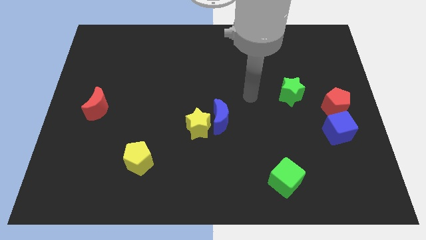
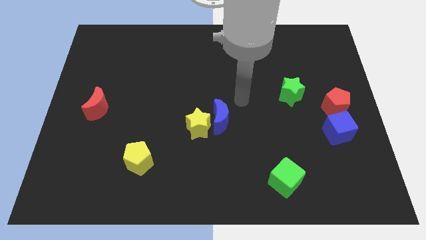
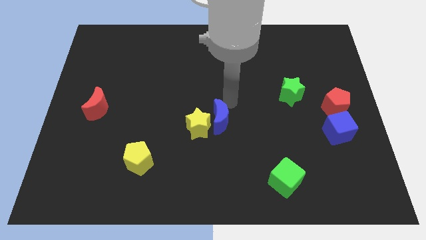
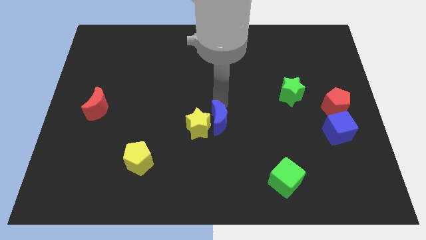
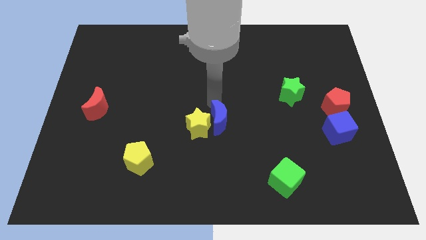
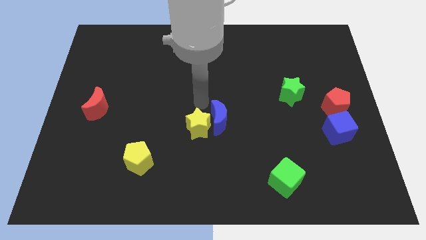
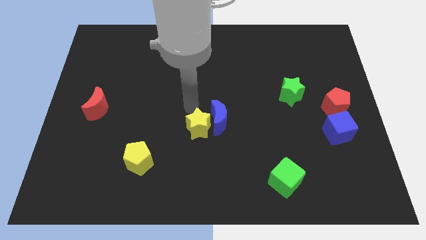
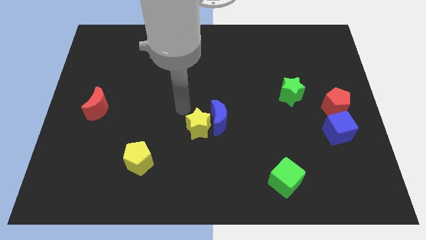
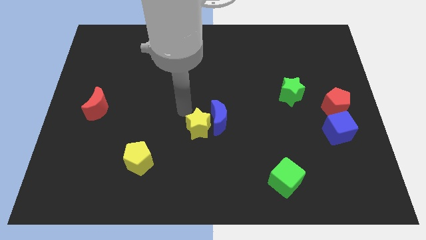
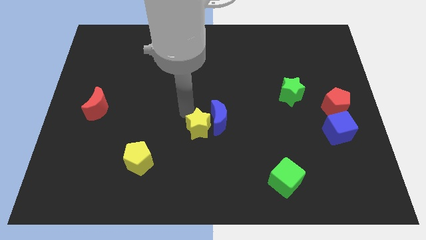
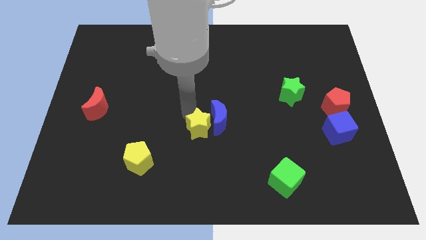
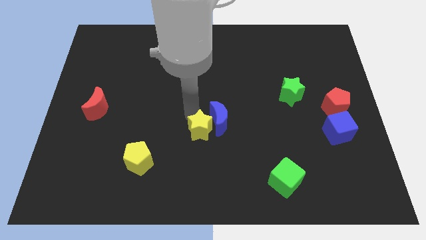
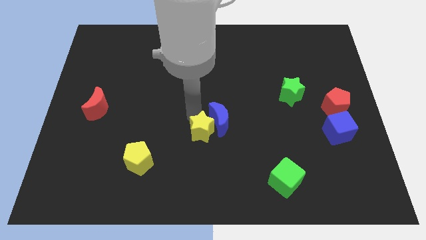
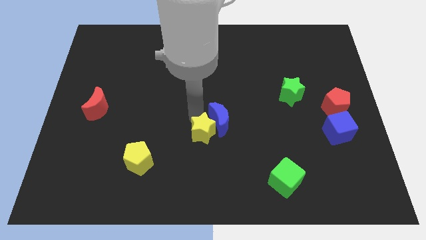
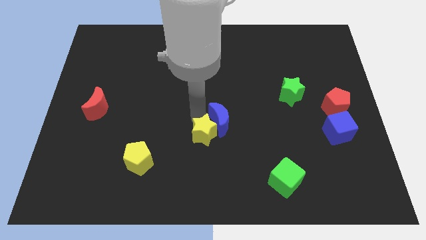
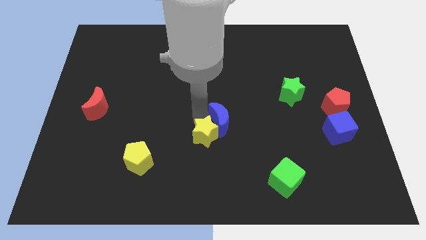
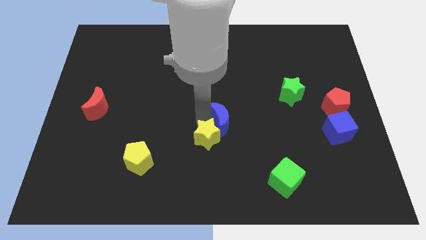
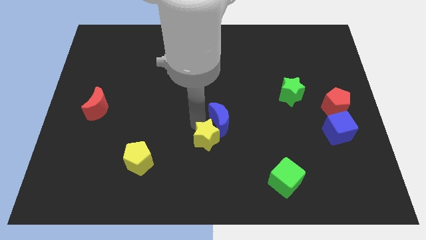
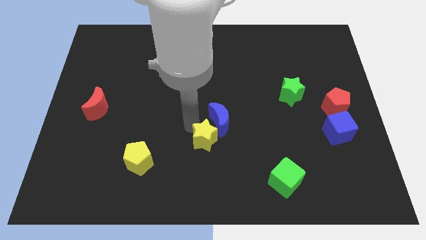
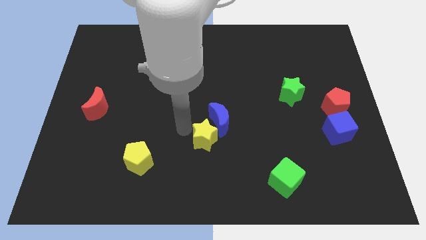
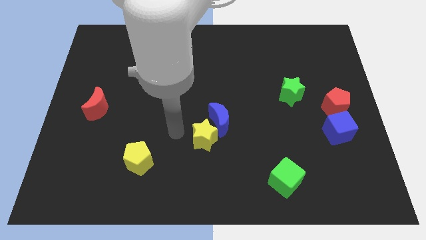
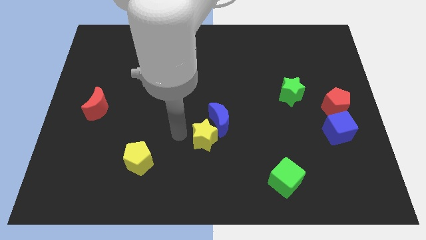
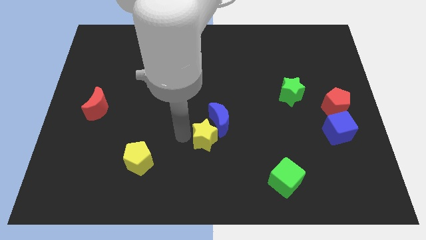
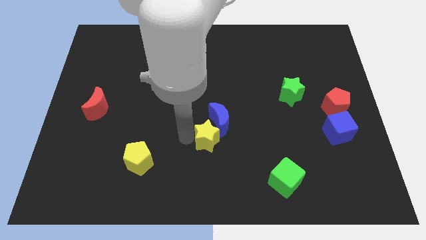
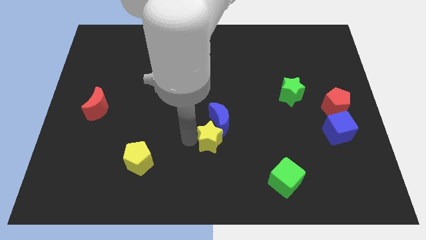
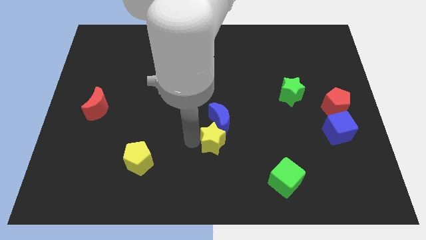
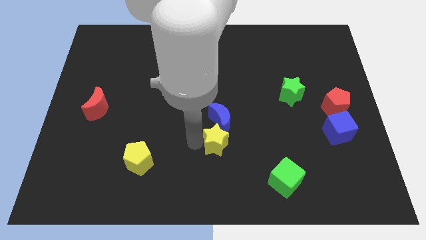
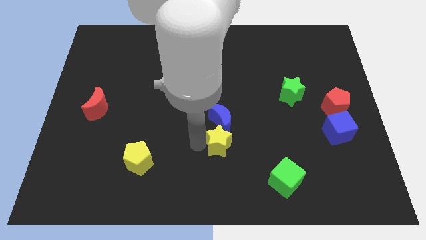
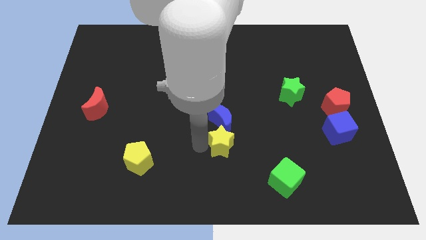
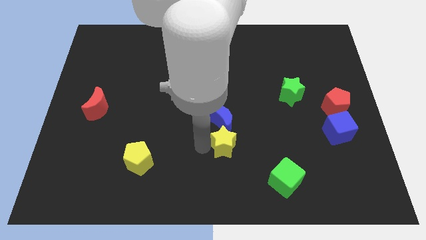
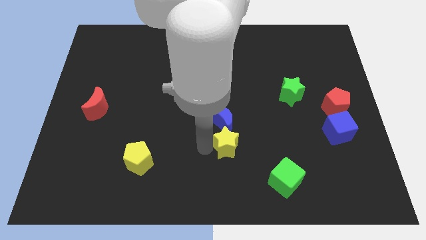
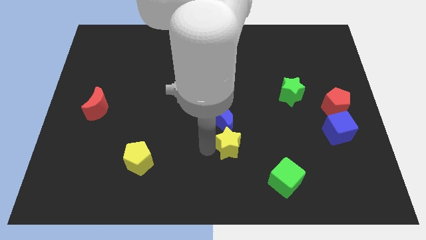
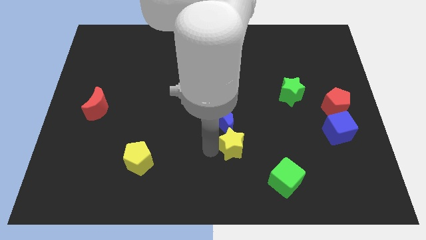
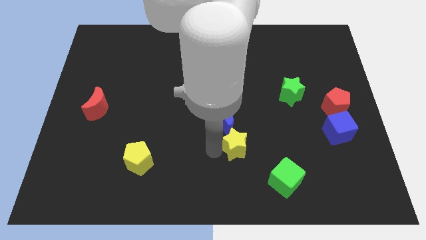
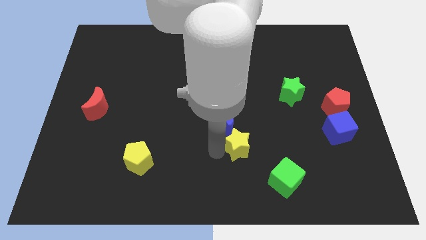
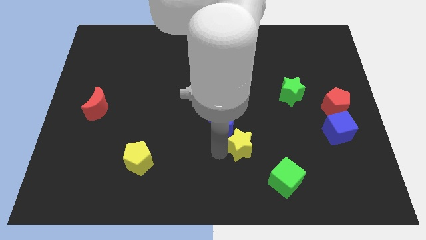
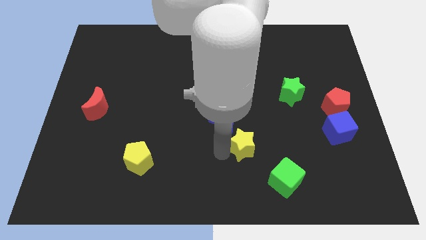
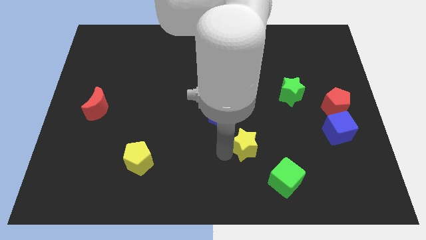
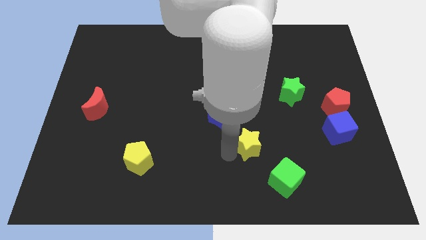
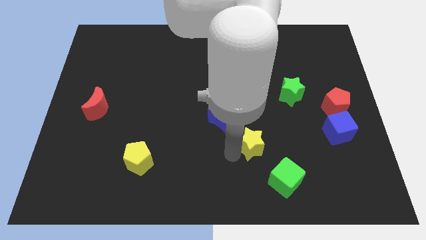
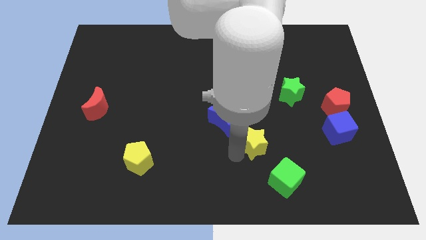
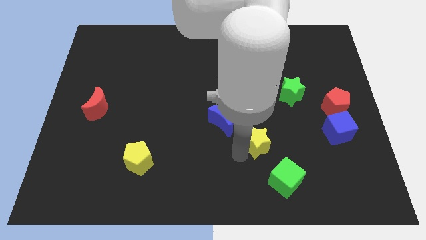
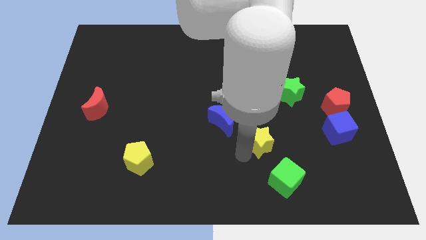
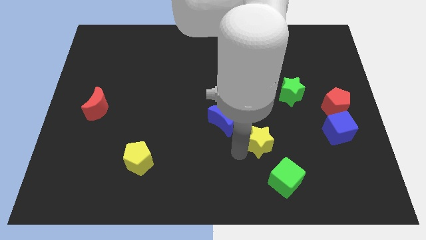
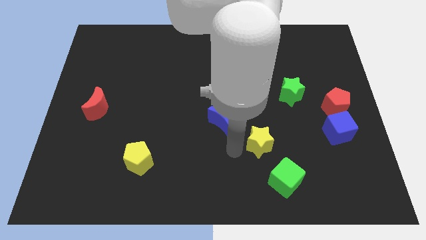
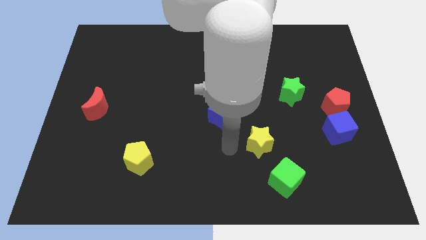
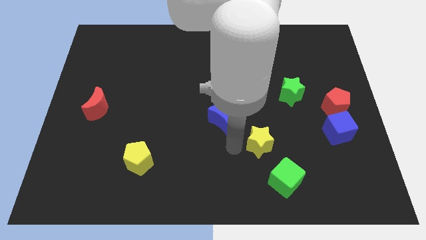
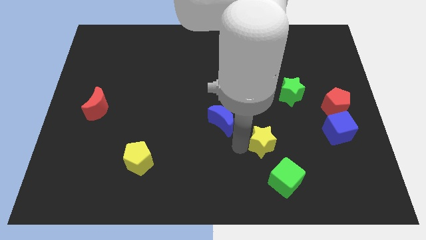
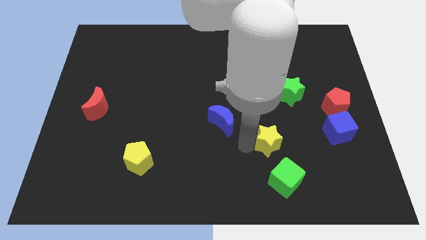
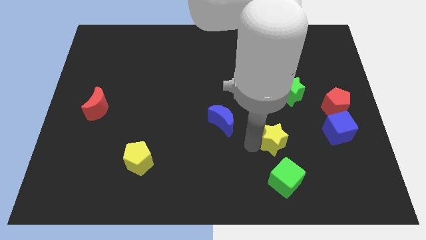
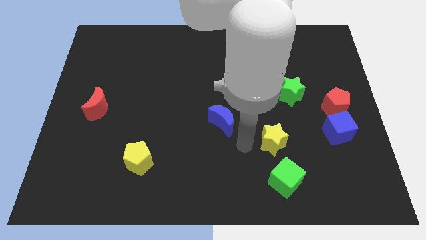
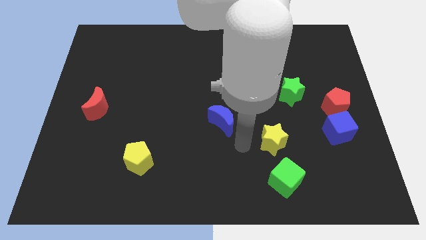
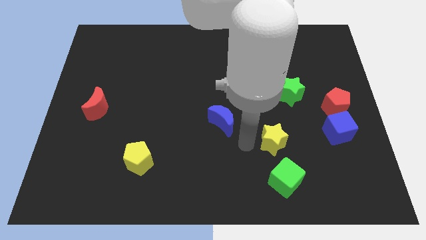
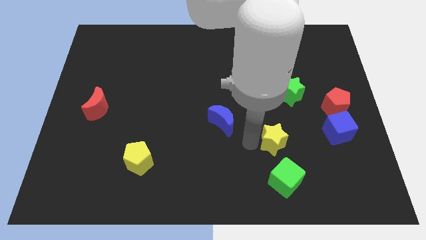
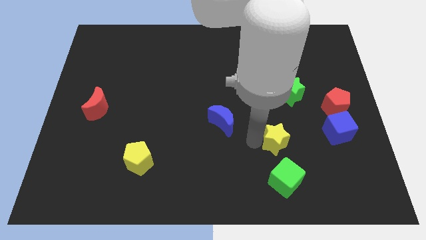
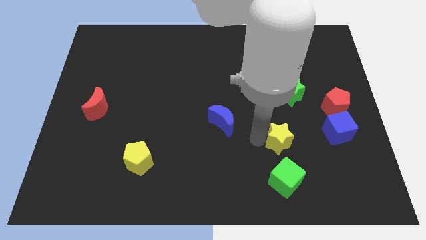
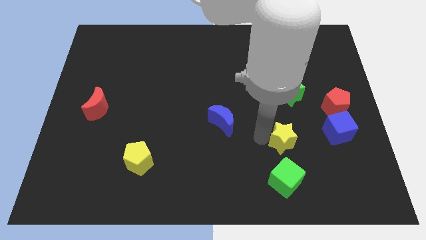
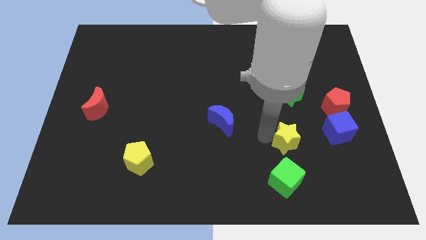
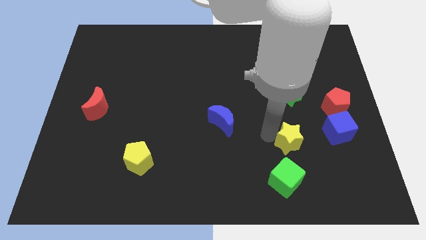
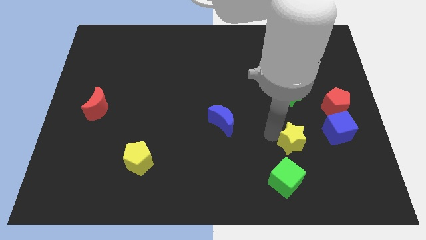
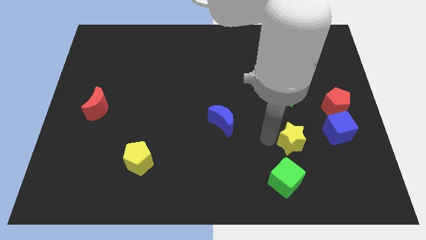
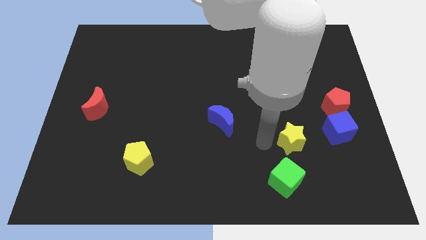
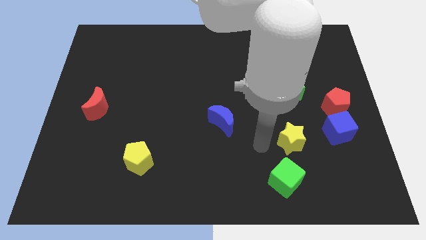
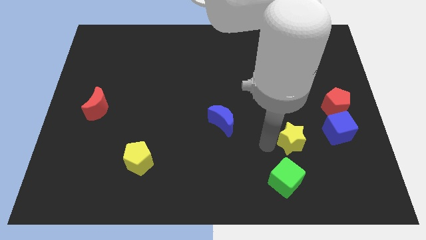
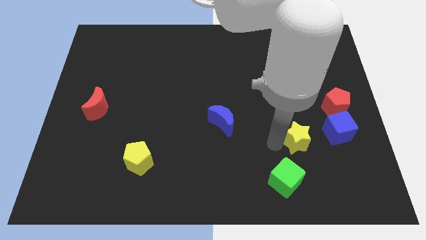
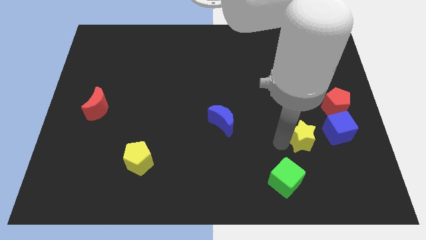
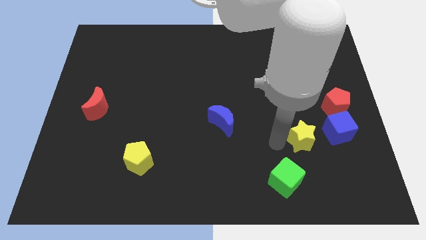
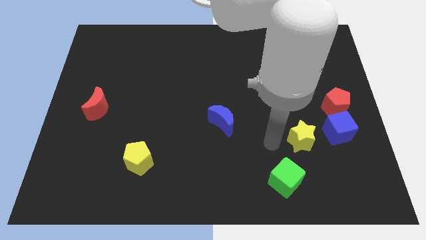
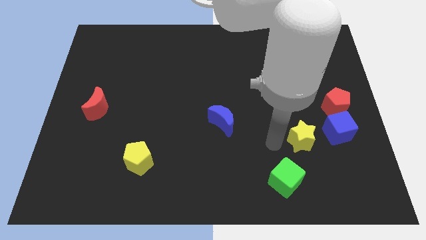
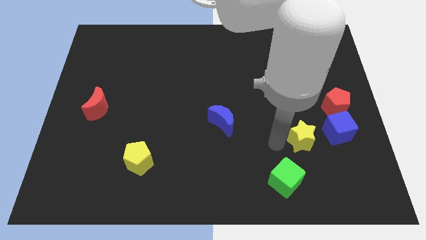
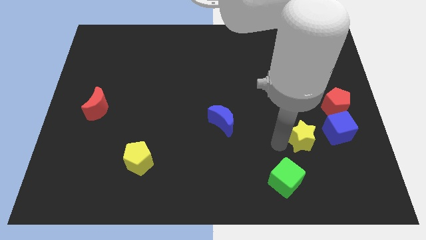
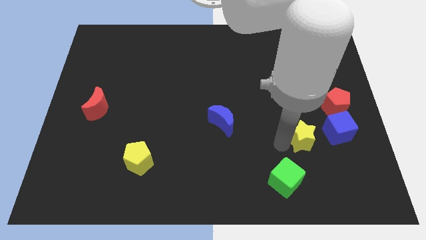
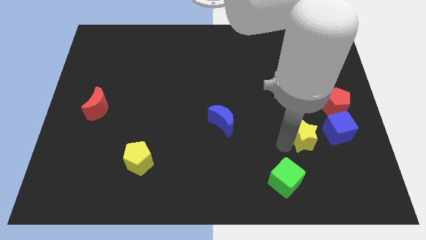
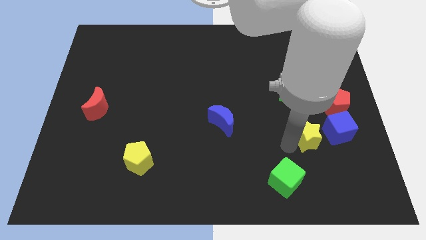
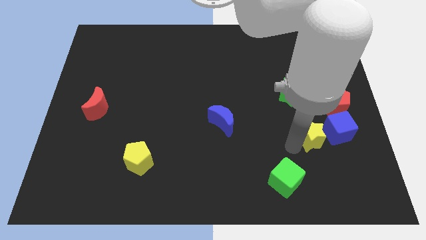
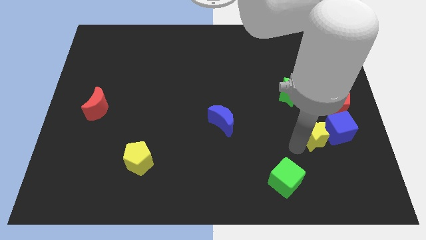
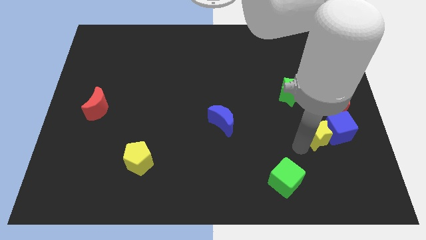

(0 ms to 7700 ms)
put the yellow star next to the blue cube
